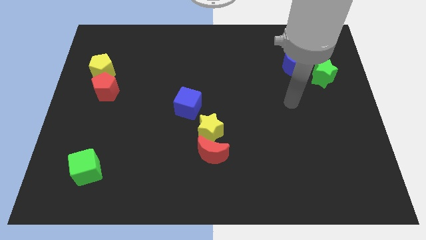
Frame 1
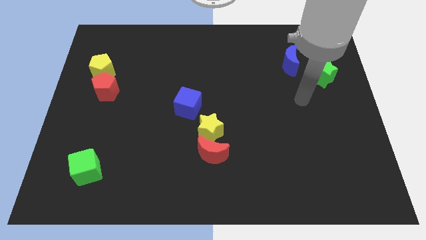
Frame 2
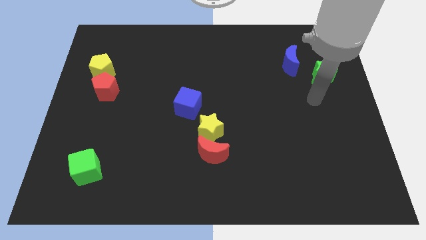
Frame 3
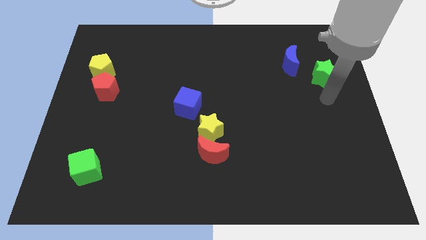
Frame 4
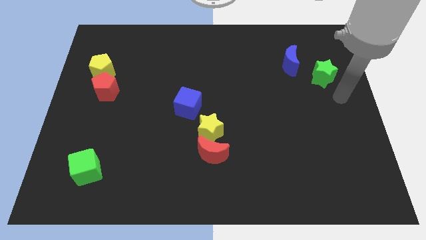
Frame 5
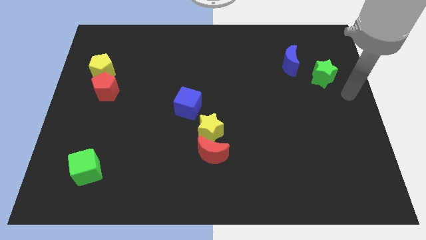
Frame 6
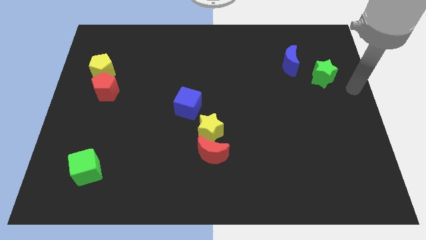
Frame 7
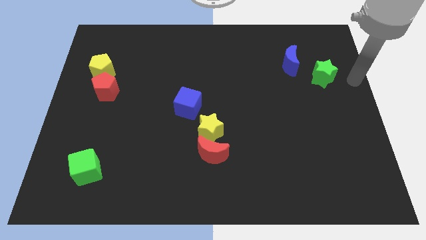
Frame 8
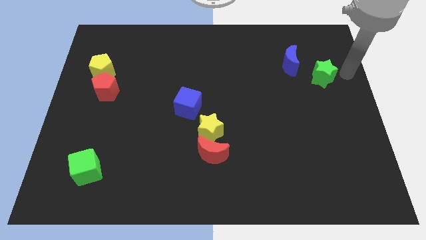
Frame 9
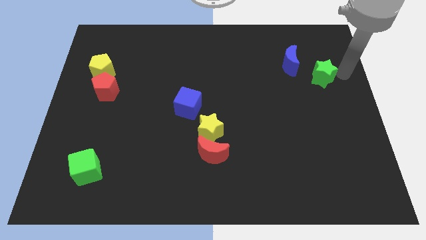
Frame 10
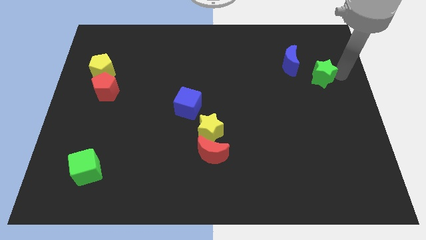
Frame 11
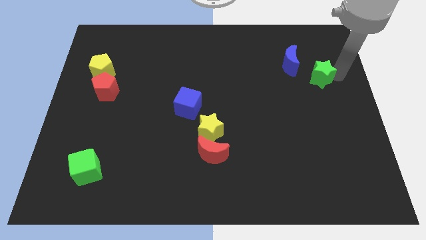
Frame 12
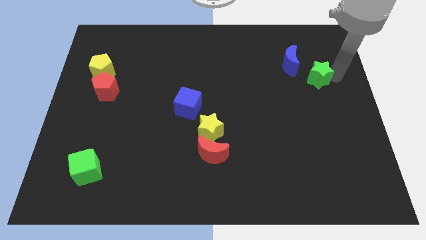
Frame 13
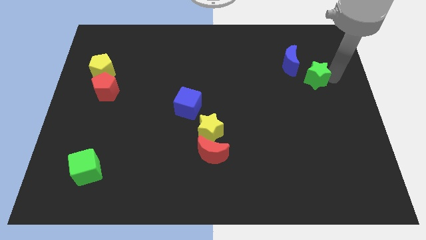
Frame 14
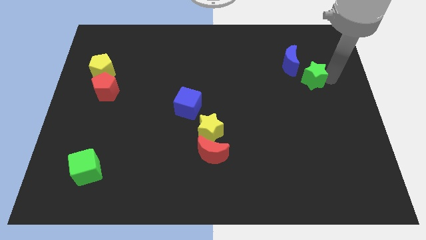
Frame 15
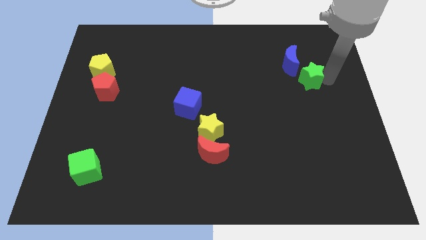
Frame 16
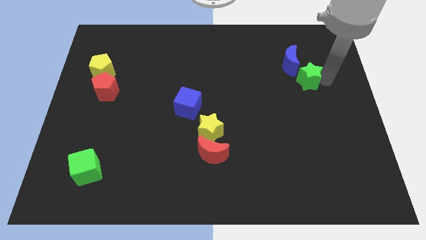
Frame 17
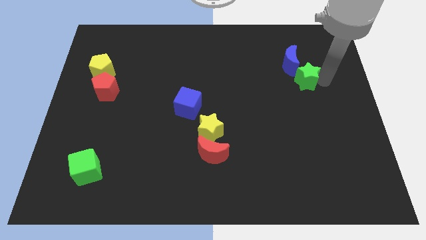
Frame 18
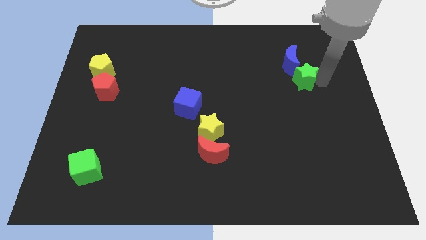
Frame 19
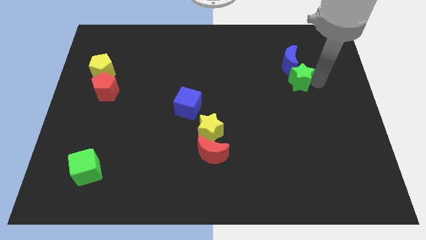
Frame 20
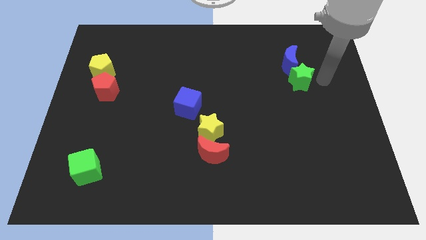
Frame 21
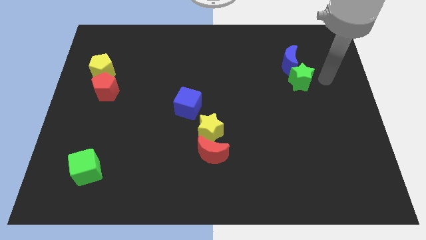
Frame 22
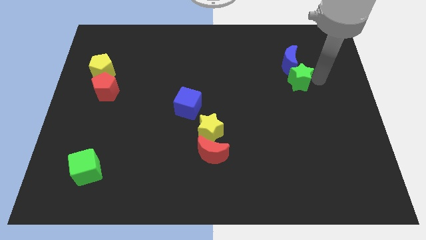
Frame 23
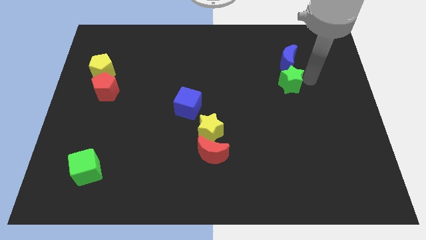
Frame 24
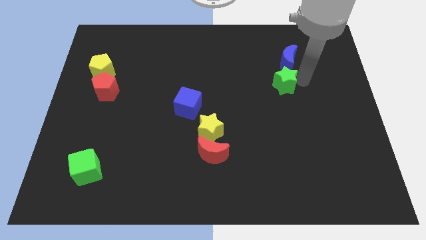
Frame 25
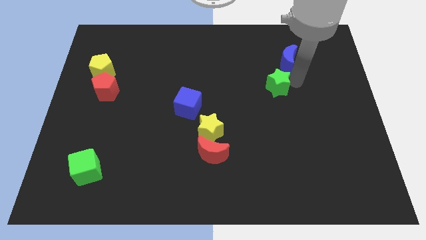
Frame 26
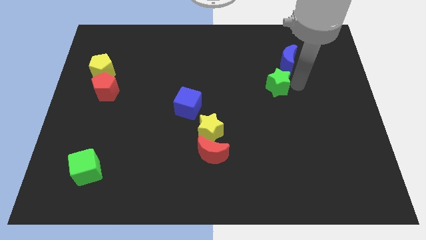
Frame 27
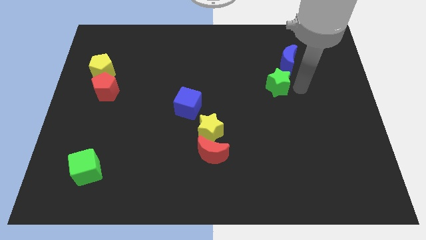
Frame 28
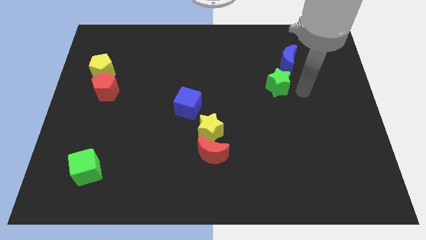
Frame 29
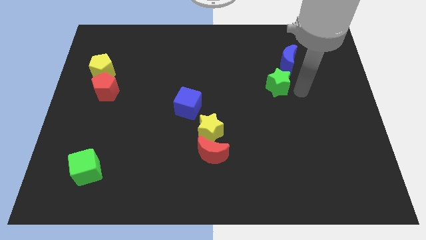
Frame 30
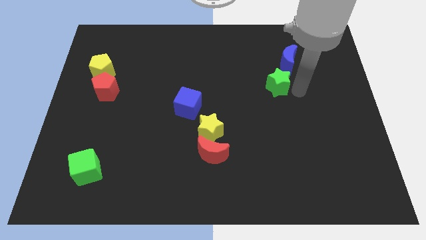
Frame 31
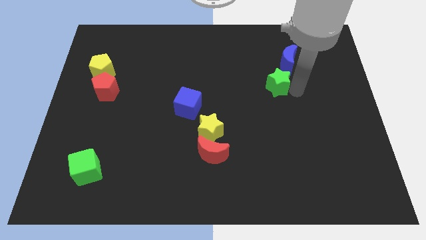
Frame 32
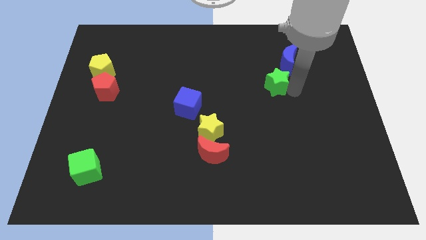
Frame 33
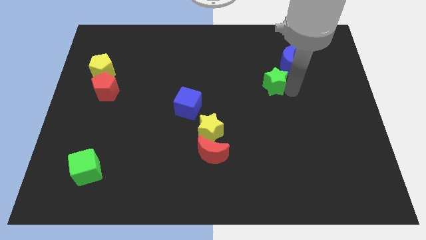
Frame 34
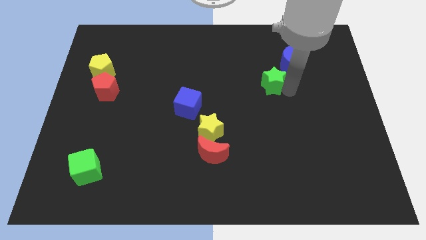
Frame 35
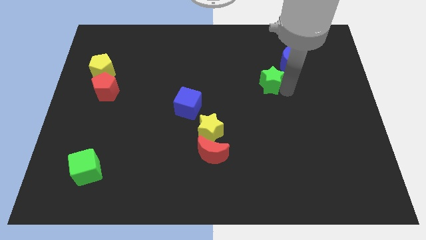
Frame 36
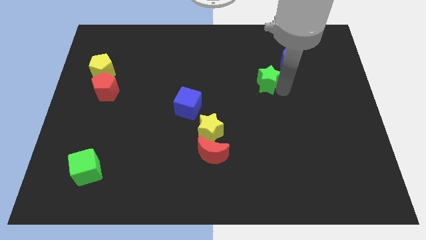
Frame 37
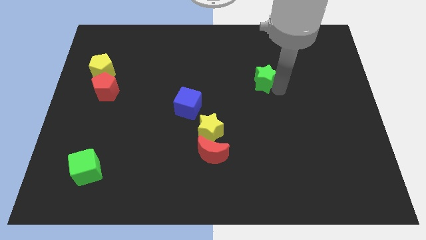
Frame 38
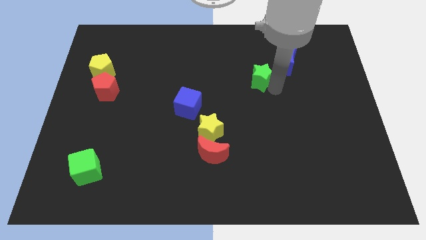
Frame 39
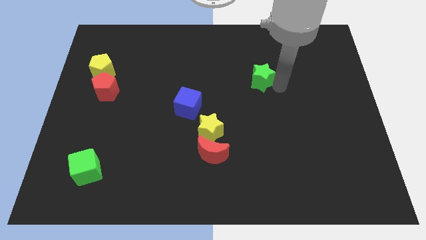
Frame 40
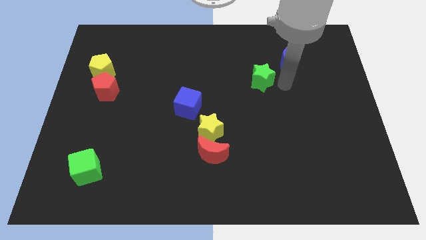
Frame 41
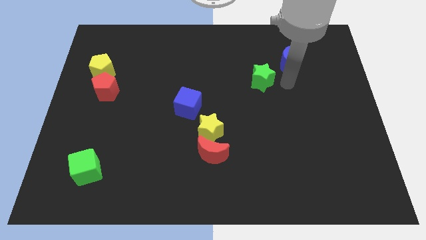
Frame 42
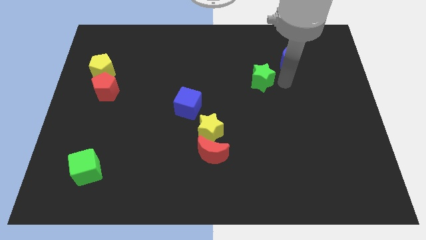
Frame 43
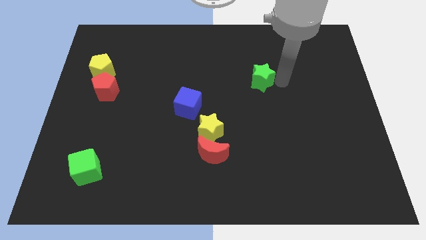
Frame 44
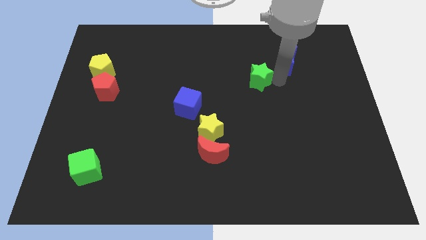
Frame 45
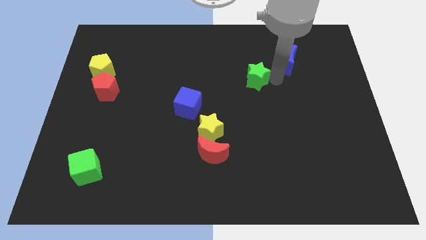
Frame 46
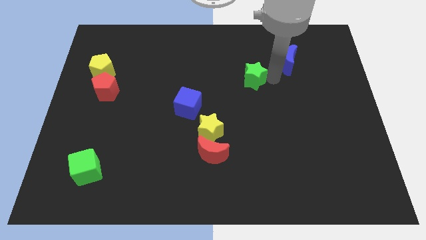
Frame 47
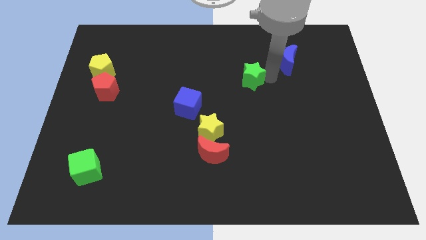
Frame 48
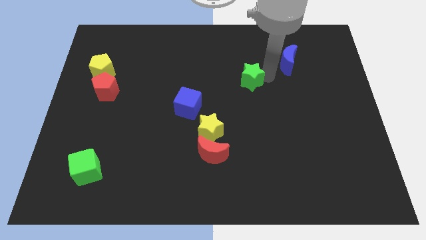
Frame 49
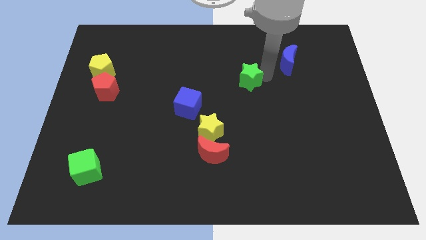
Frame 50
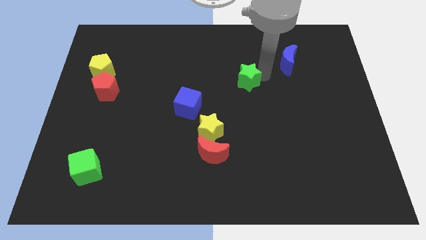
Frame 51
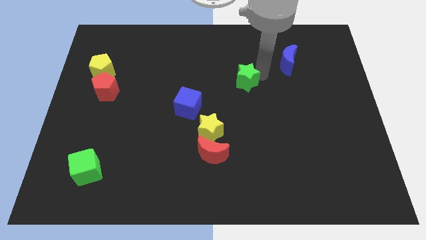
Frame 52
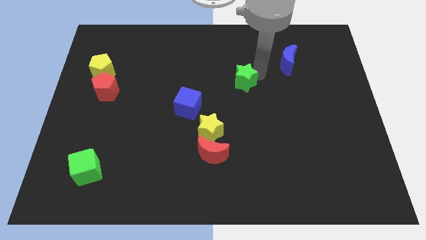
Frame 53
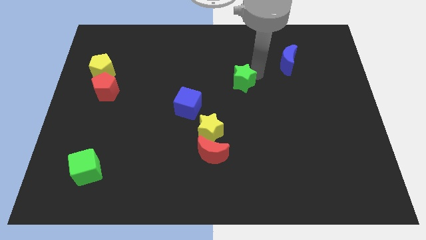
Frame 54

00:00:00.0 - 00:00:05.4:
slide the green star to the left

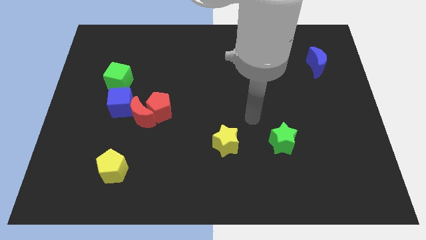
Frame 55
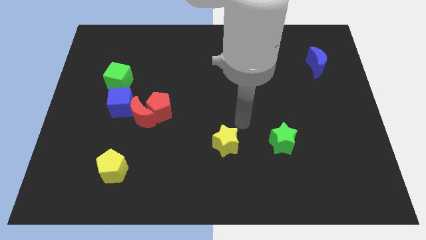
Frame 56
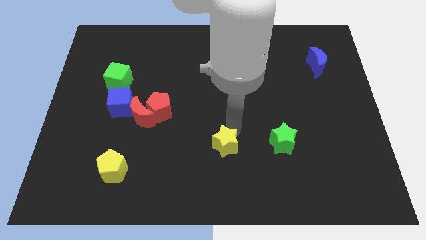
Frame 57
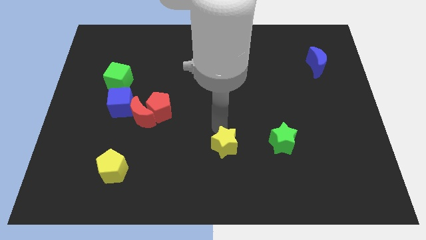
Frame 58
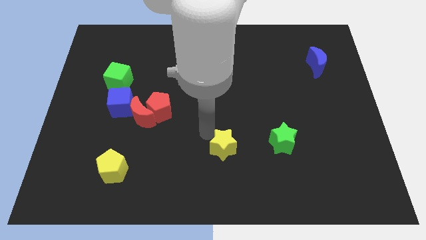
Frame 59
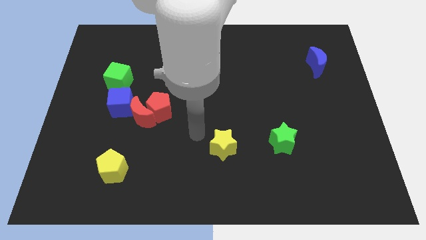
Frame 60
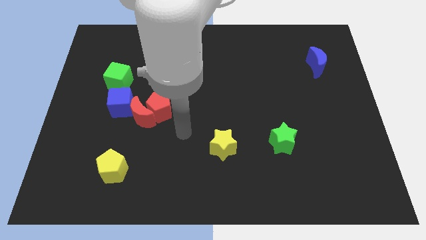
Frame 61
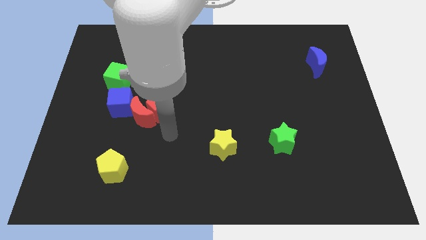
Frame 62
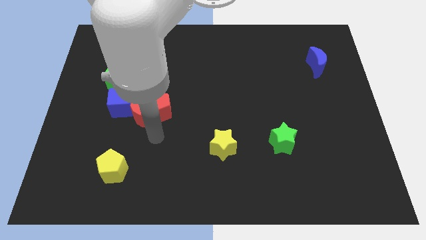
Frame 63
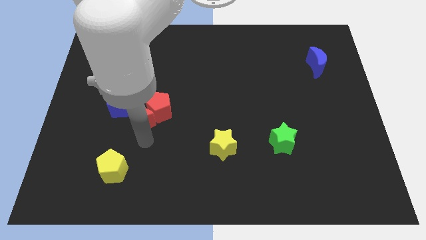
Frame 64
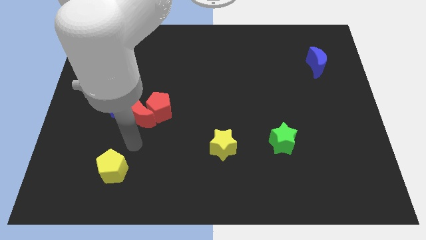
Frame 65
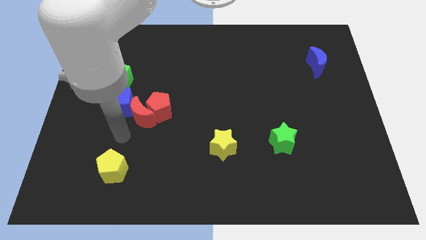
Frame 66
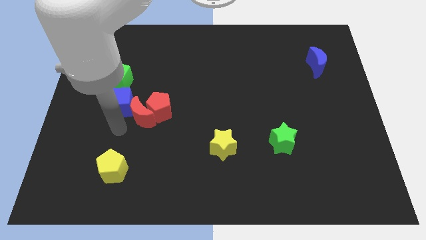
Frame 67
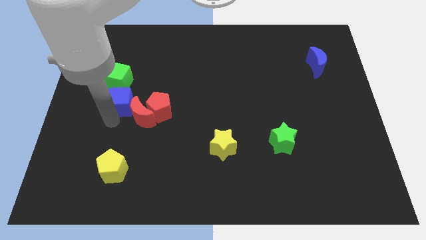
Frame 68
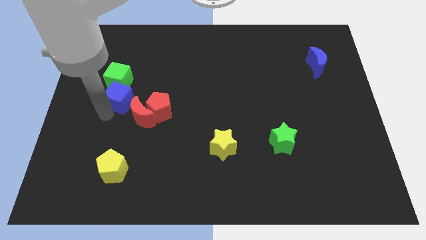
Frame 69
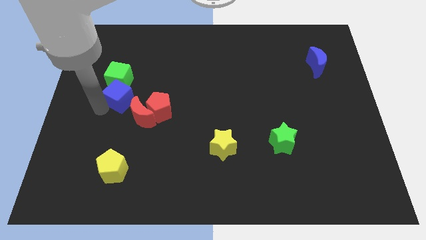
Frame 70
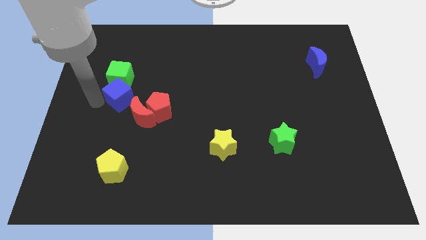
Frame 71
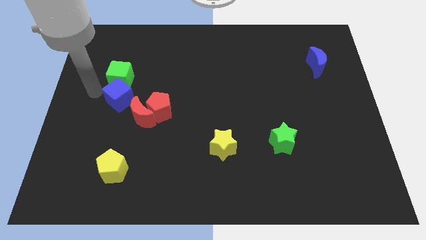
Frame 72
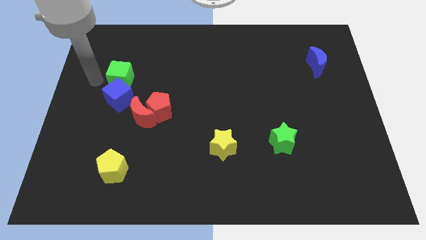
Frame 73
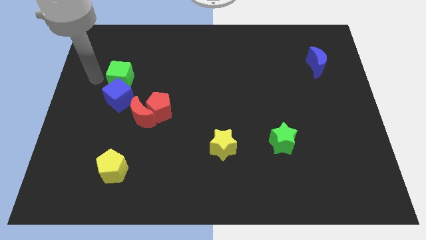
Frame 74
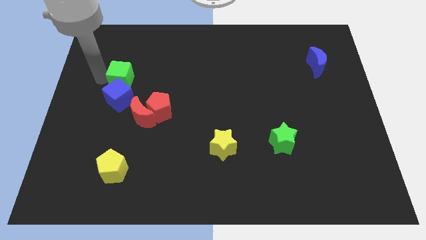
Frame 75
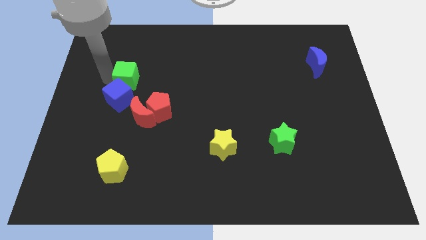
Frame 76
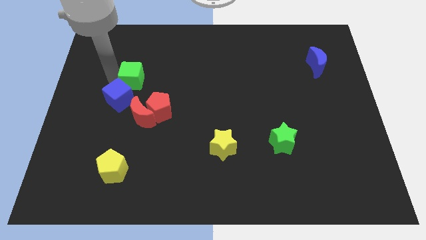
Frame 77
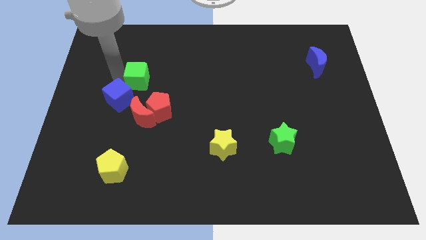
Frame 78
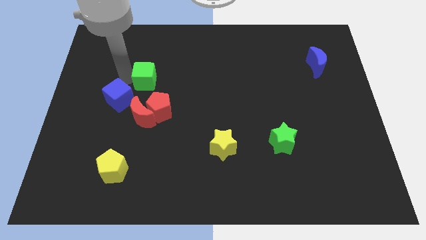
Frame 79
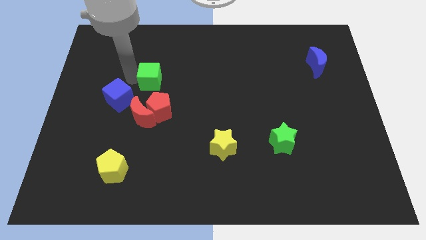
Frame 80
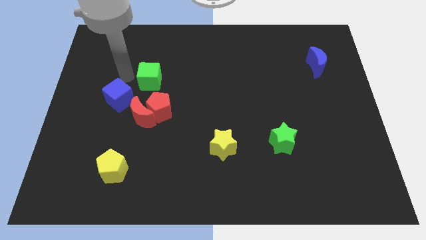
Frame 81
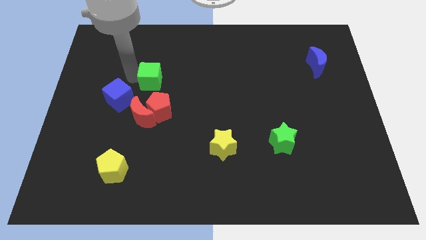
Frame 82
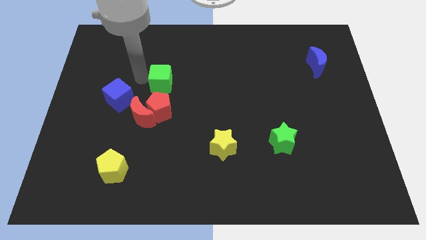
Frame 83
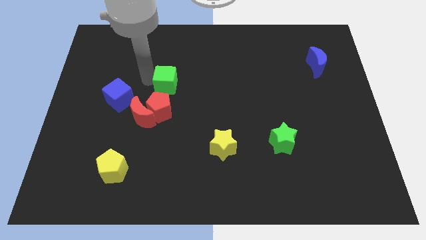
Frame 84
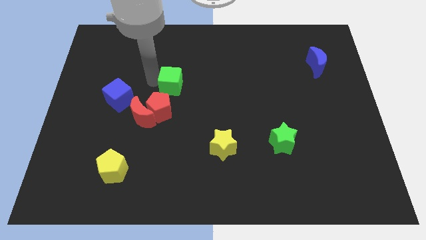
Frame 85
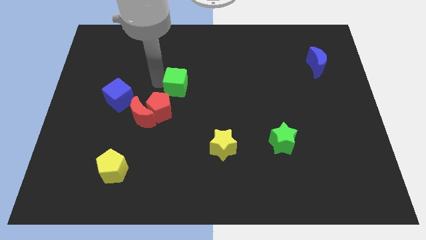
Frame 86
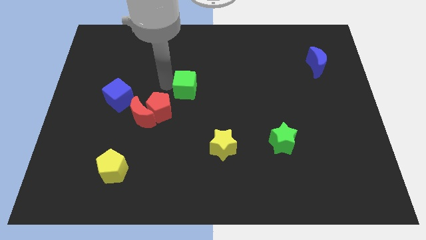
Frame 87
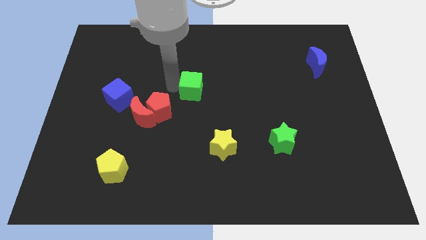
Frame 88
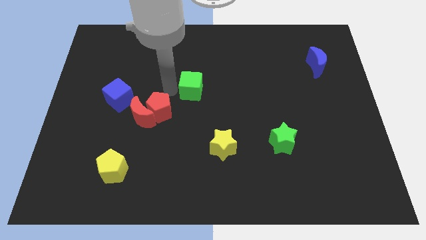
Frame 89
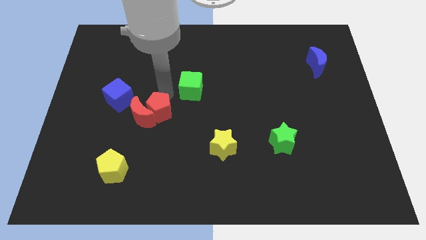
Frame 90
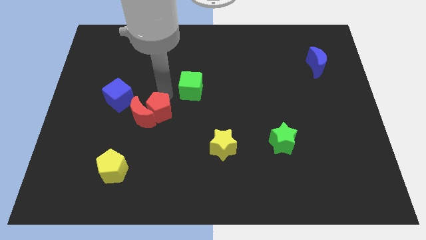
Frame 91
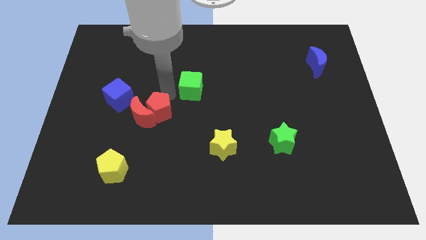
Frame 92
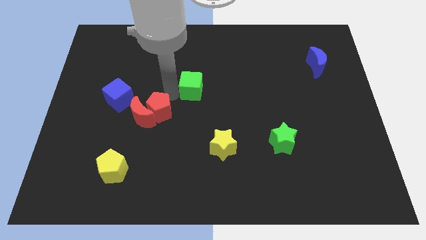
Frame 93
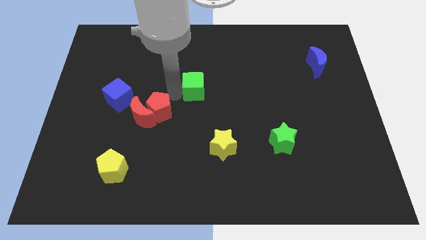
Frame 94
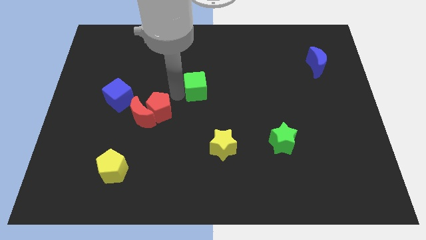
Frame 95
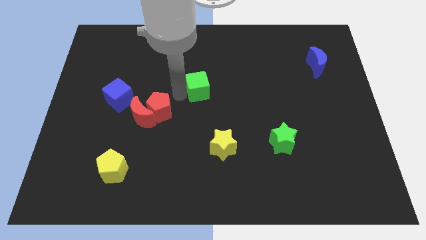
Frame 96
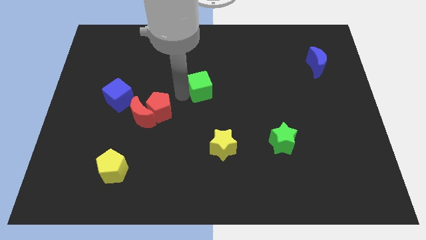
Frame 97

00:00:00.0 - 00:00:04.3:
push the green cube right
